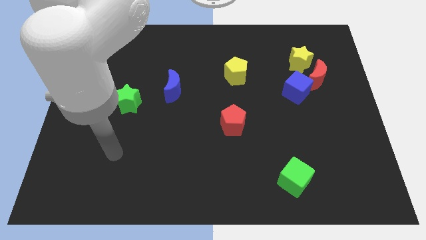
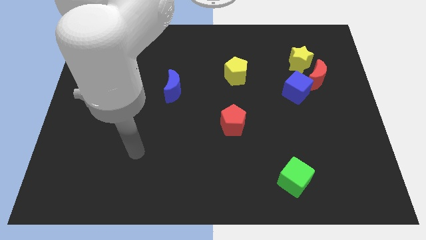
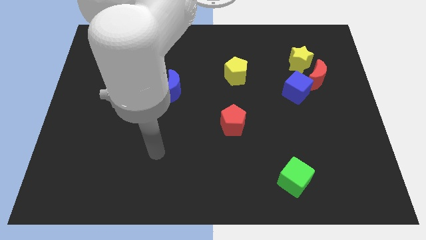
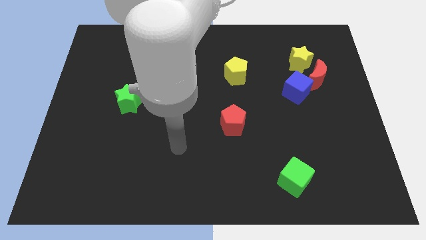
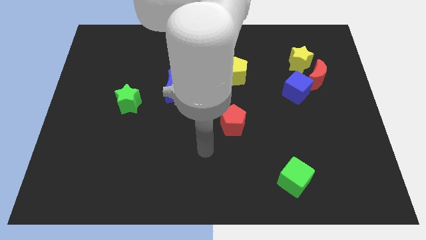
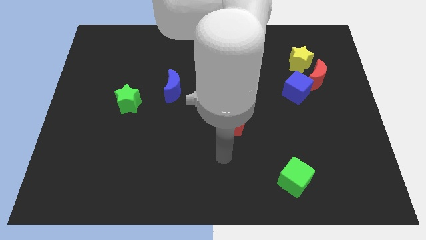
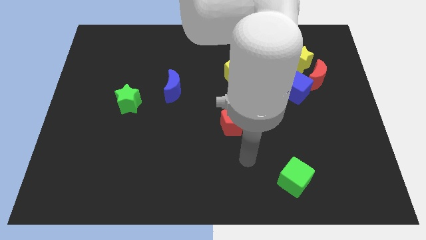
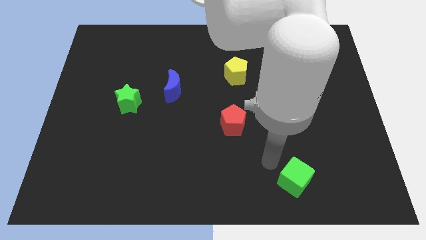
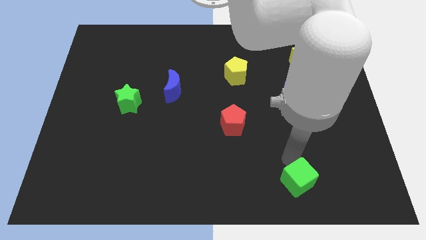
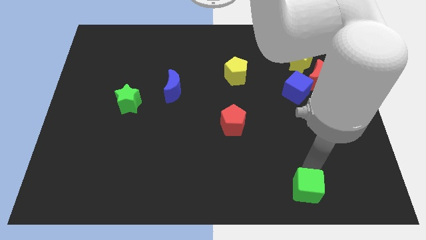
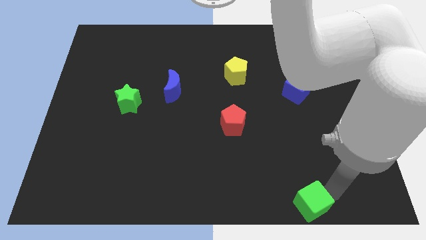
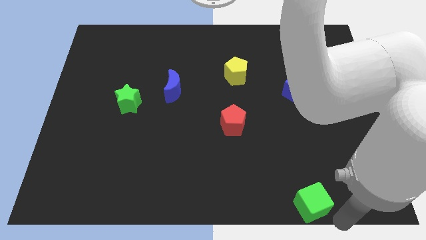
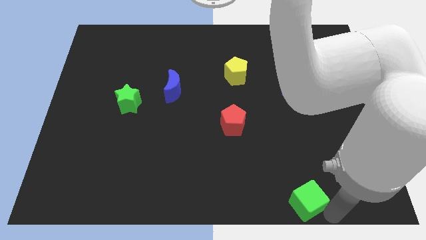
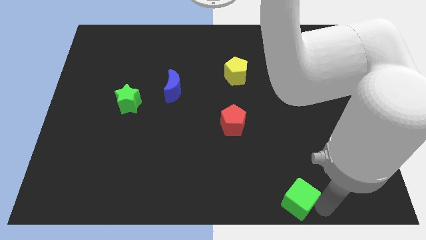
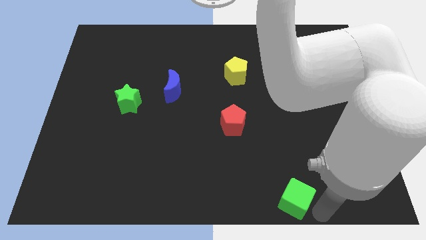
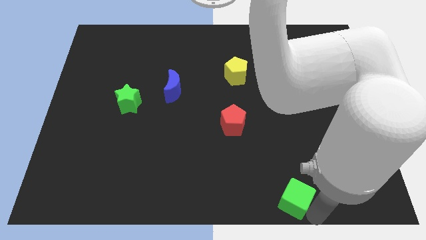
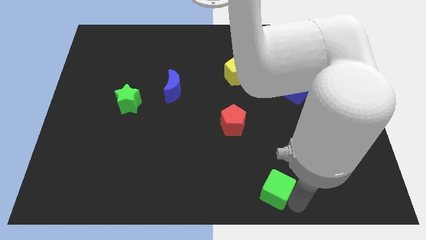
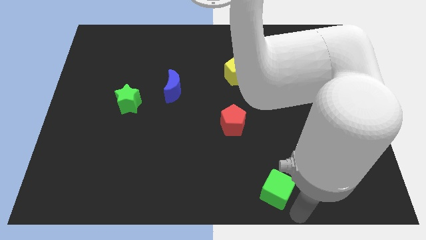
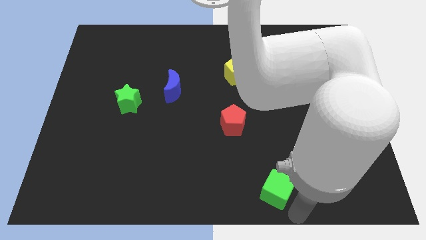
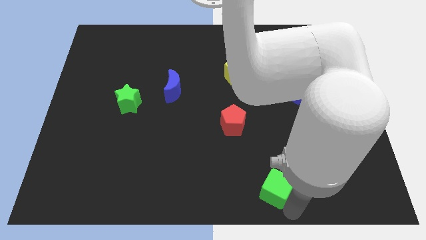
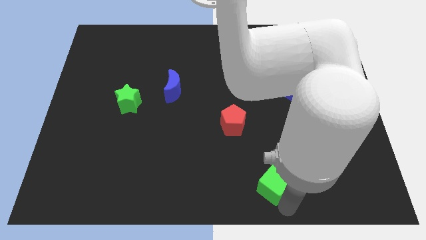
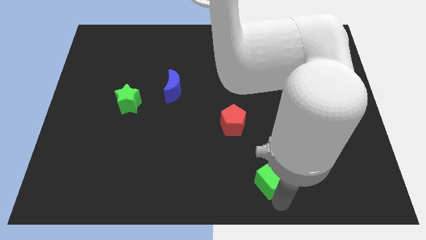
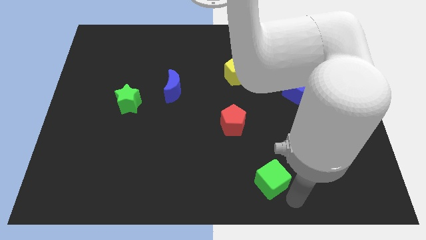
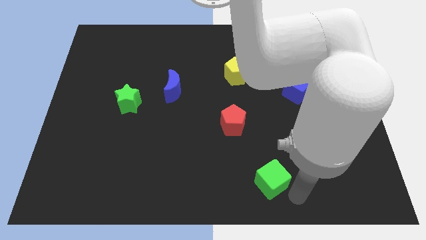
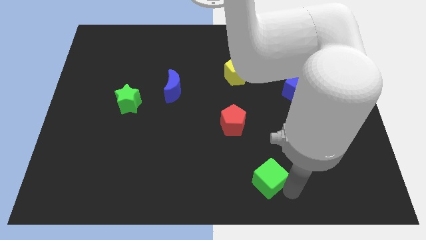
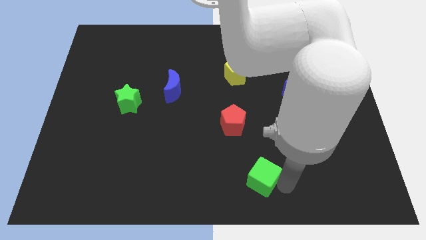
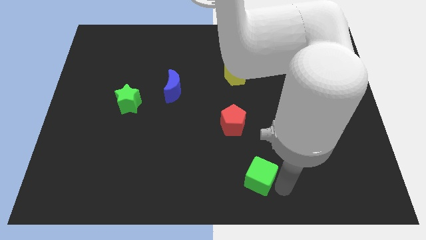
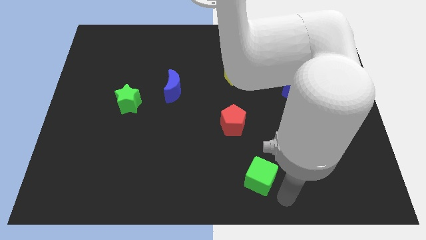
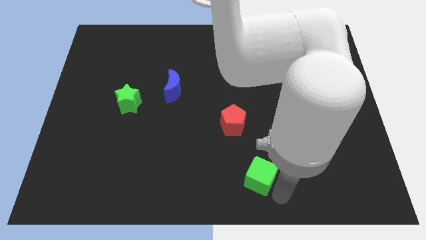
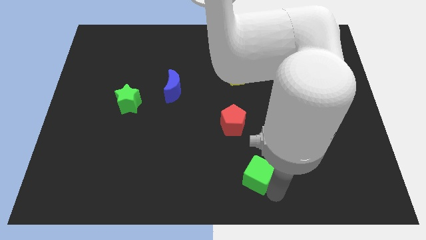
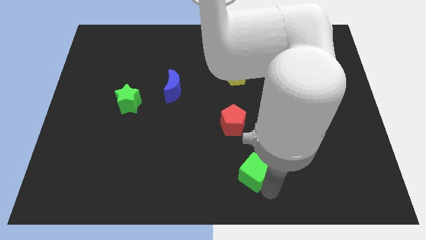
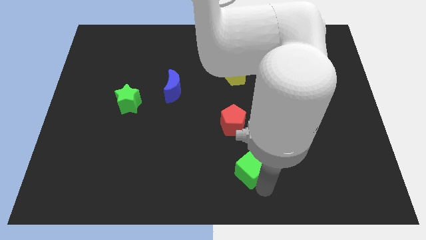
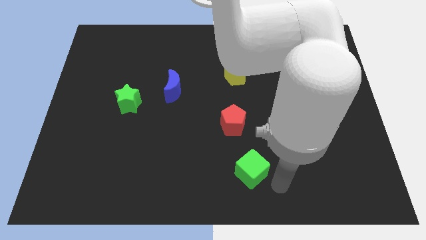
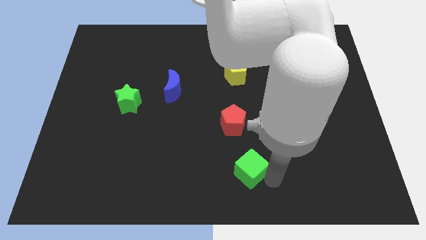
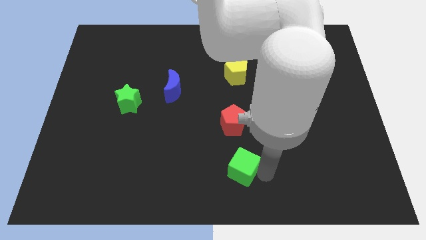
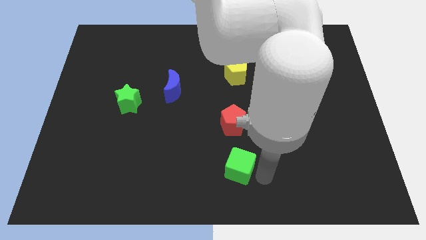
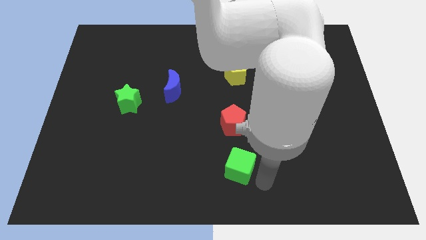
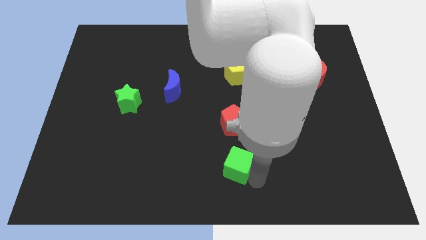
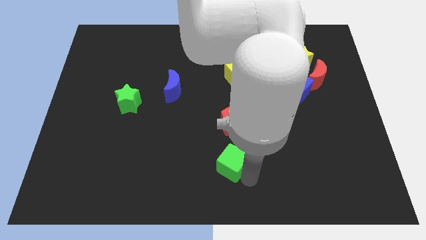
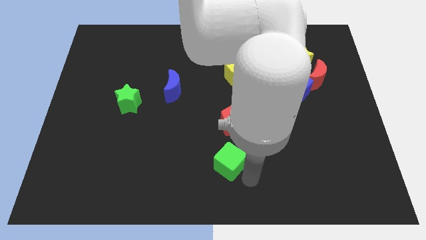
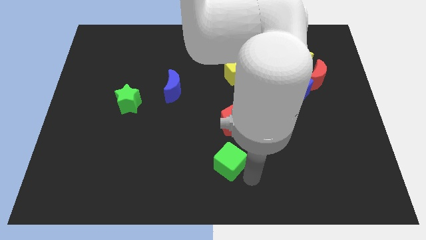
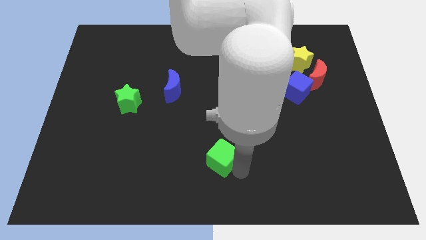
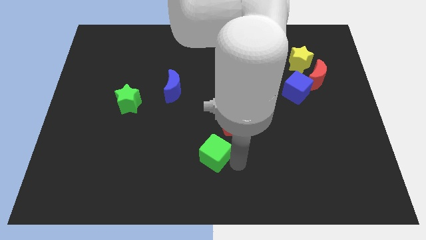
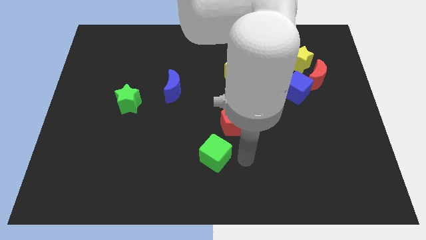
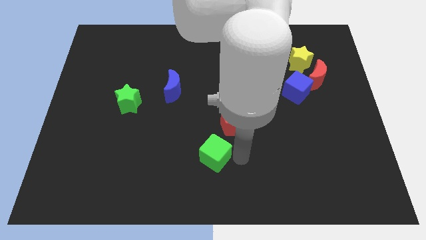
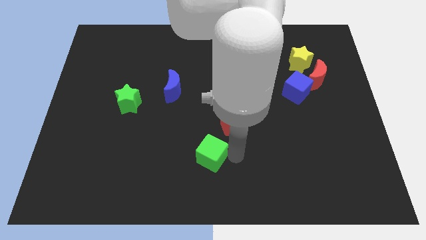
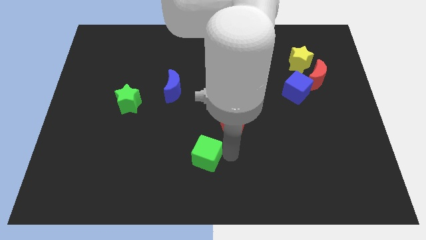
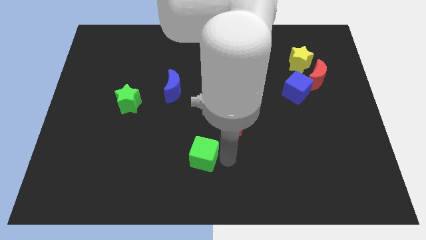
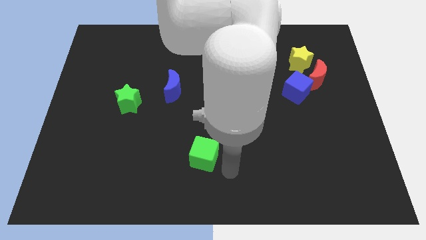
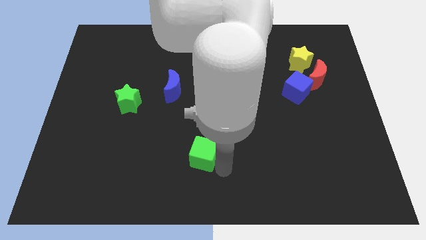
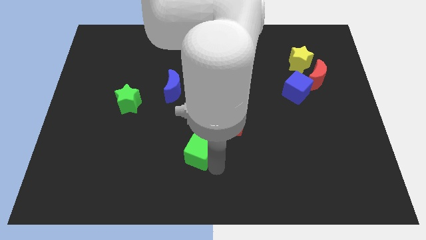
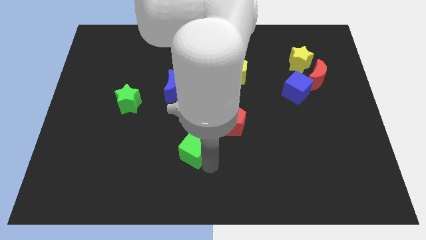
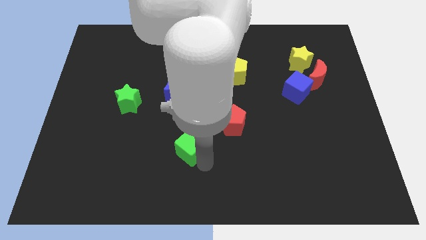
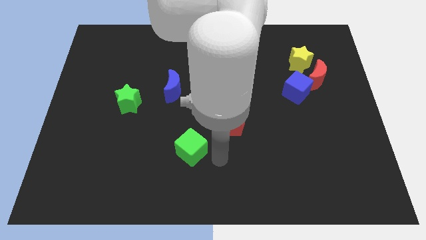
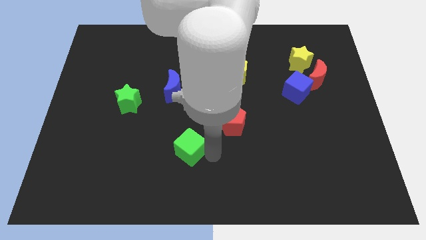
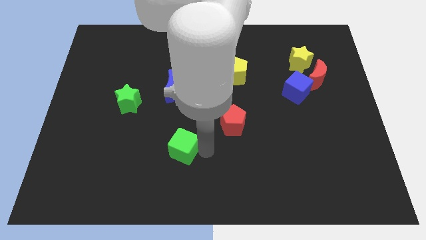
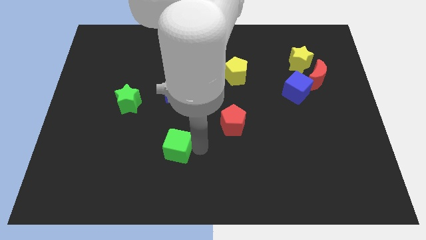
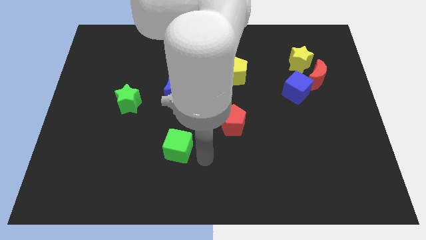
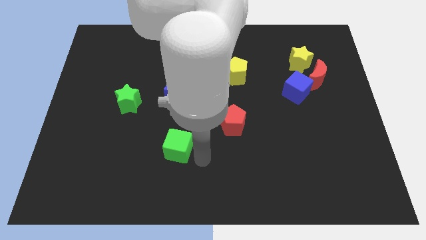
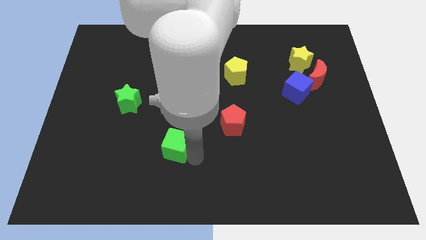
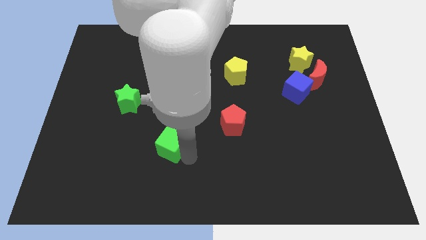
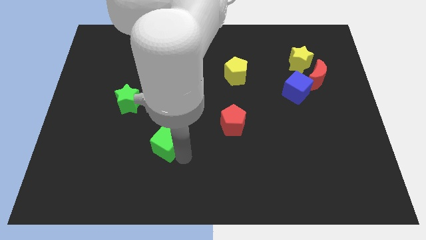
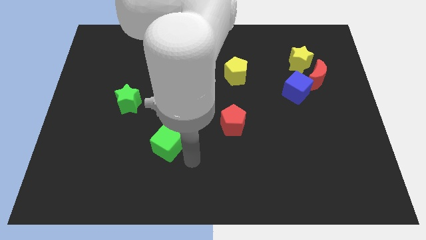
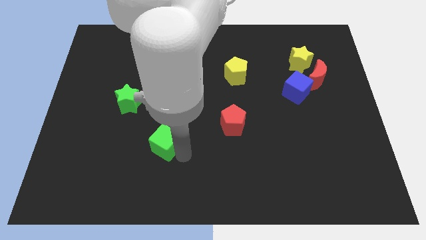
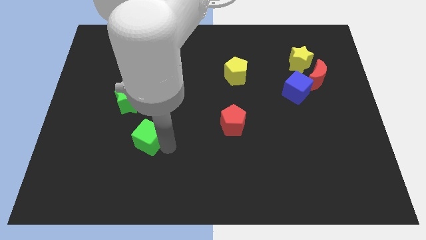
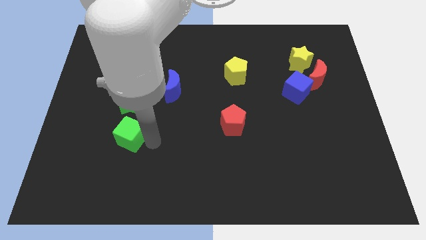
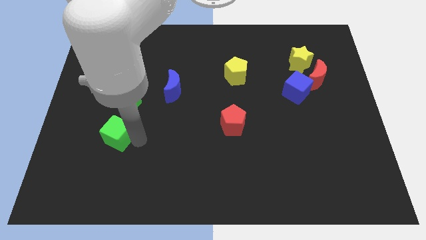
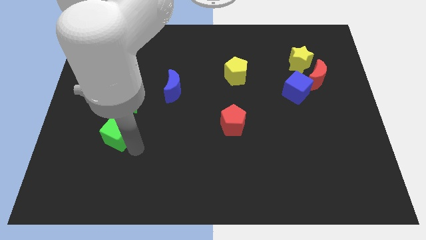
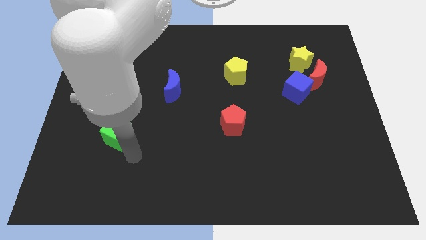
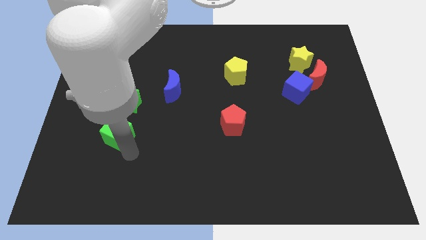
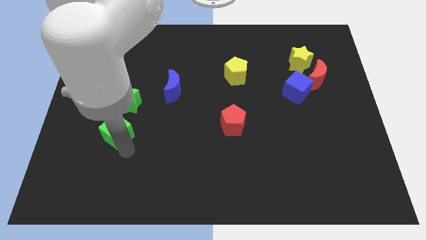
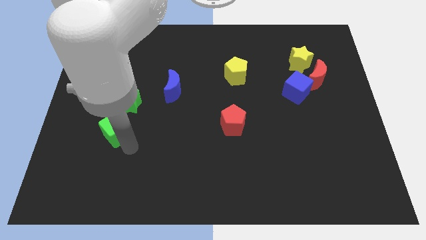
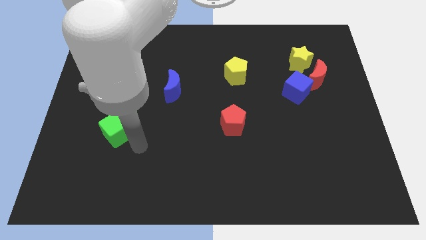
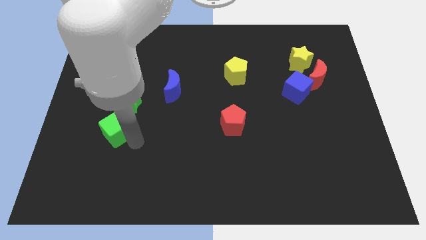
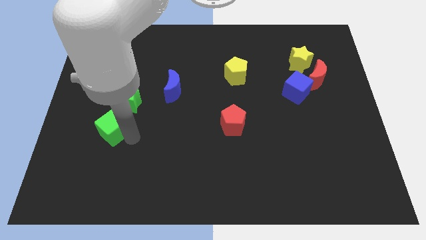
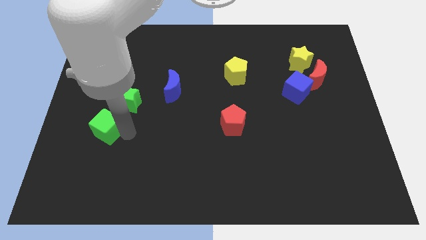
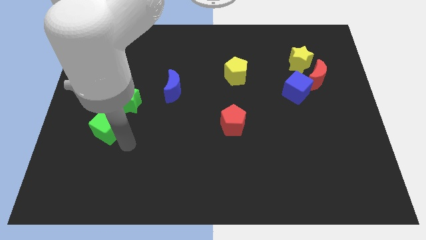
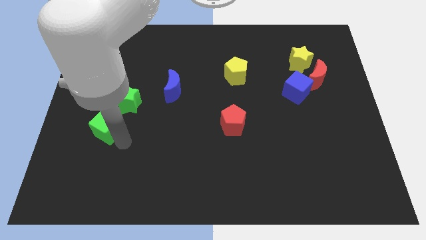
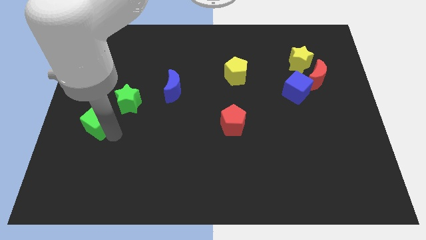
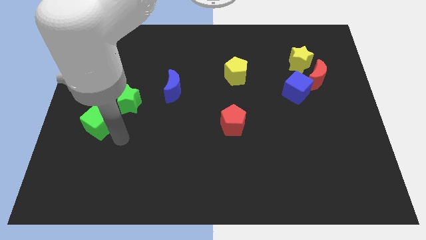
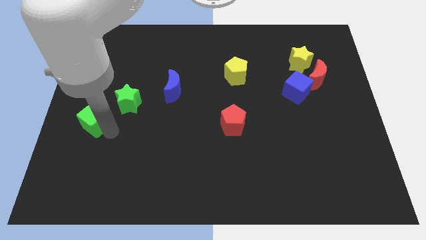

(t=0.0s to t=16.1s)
put the green cube to the left side of the board
